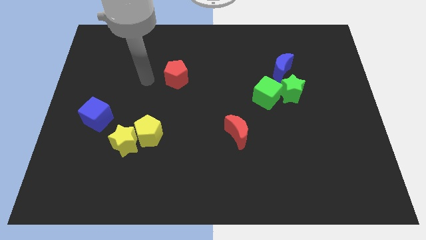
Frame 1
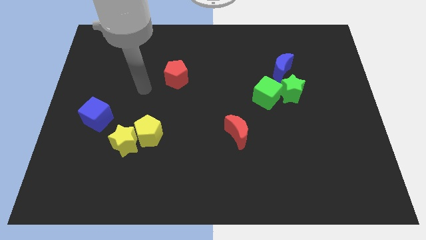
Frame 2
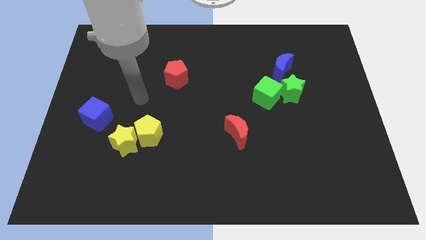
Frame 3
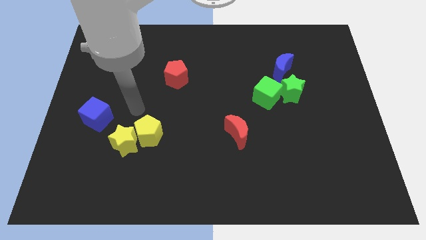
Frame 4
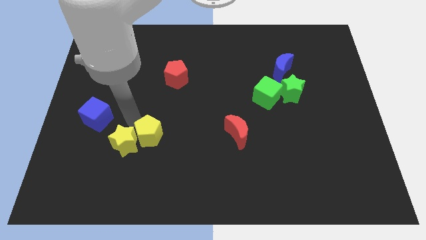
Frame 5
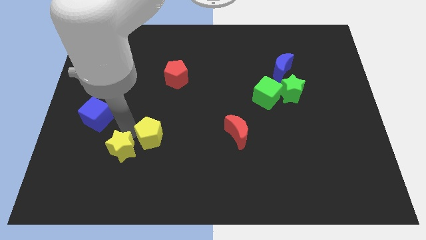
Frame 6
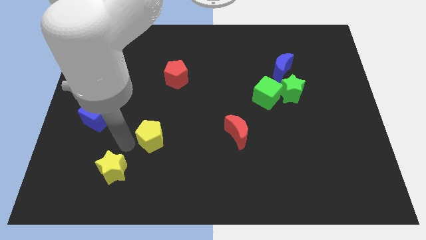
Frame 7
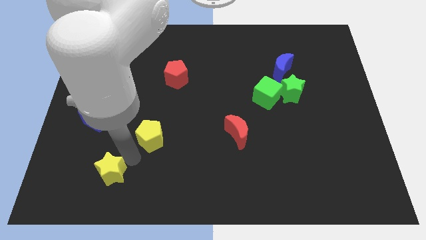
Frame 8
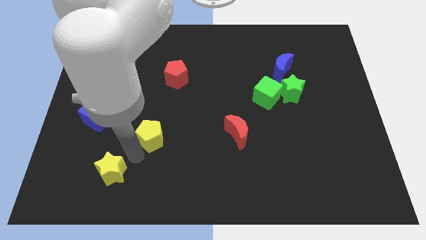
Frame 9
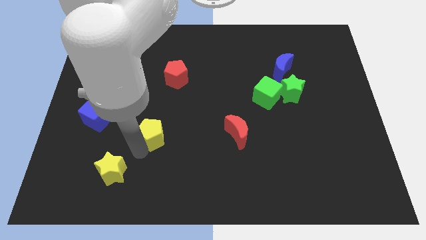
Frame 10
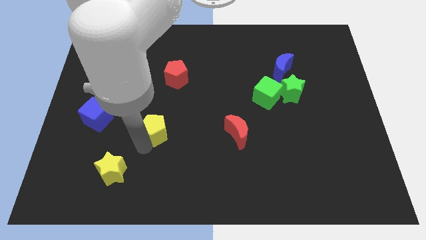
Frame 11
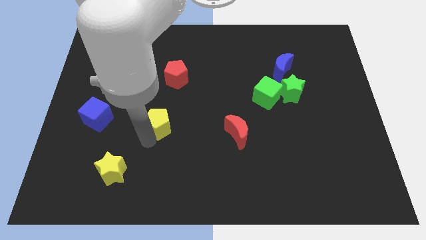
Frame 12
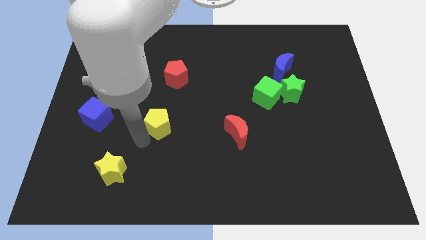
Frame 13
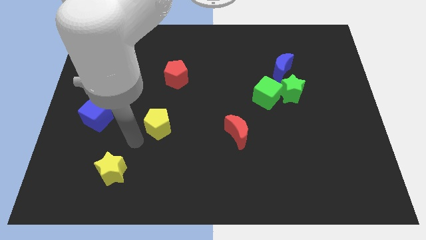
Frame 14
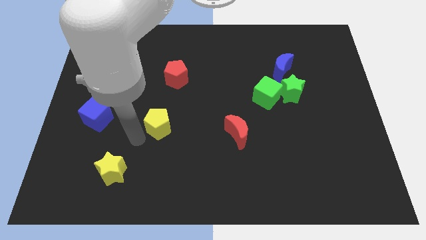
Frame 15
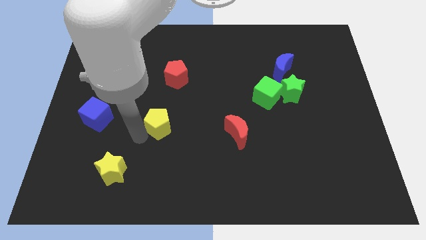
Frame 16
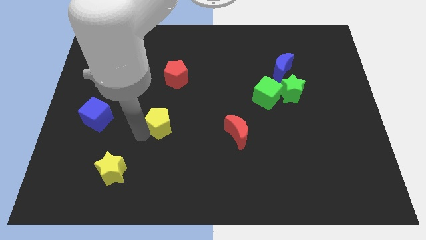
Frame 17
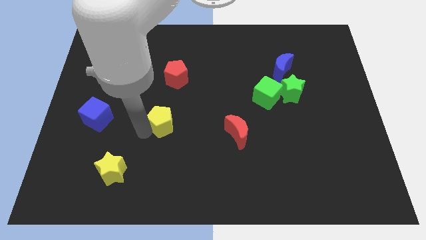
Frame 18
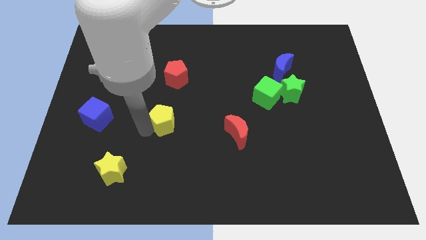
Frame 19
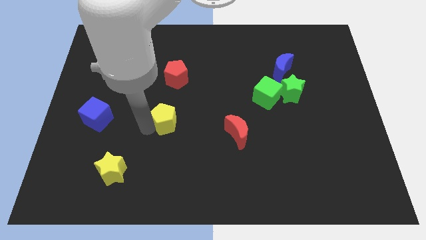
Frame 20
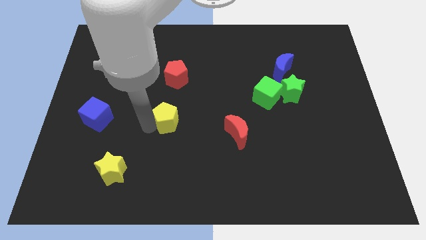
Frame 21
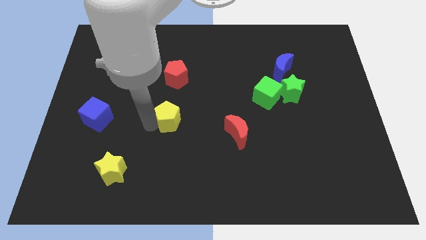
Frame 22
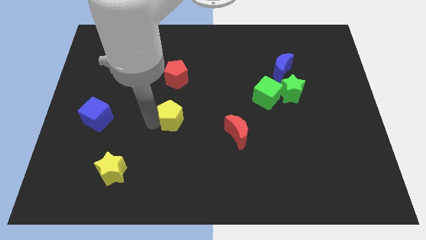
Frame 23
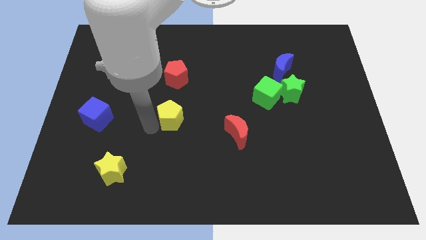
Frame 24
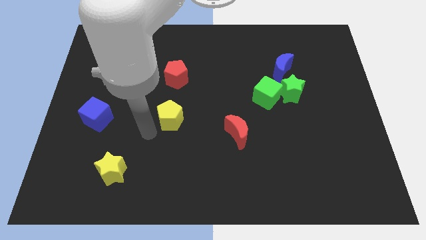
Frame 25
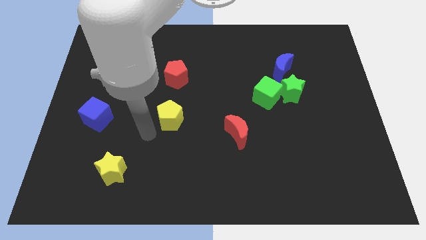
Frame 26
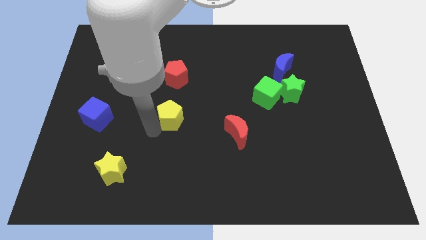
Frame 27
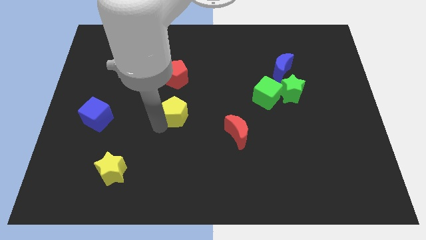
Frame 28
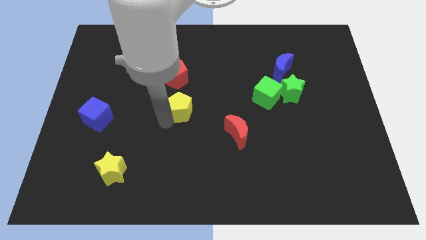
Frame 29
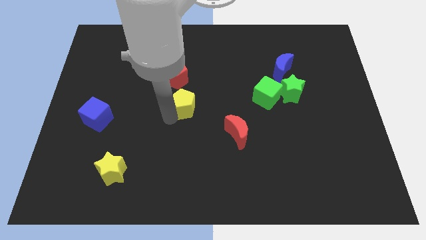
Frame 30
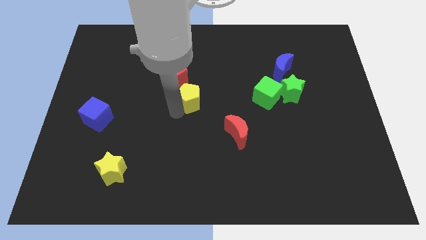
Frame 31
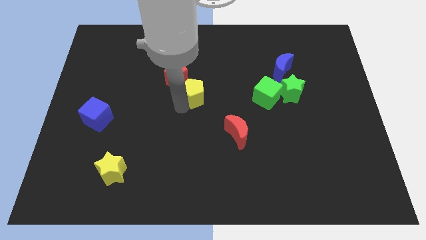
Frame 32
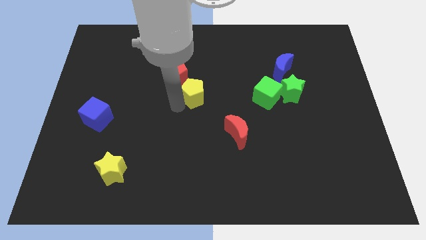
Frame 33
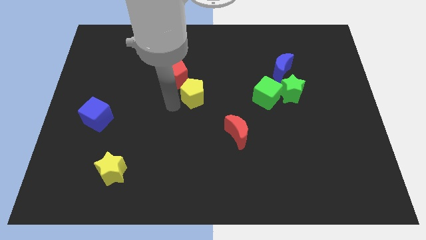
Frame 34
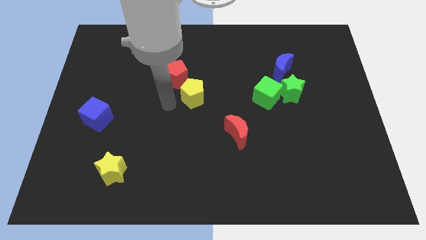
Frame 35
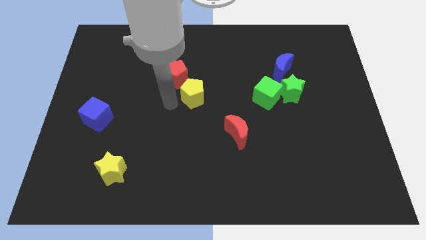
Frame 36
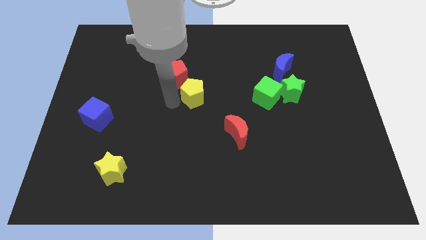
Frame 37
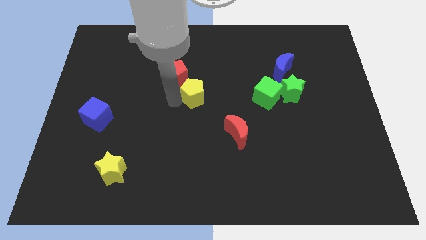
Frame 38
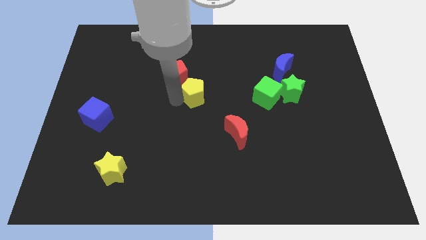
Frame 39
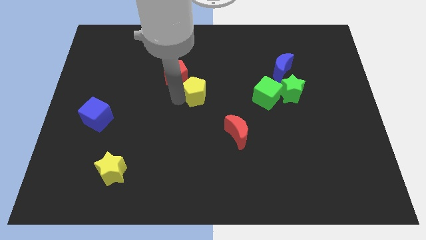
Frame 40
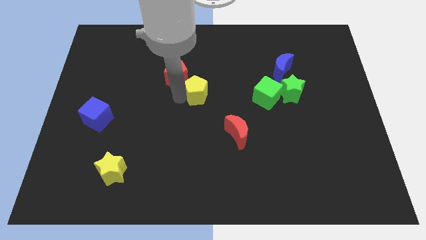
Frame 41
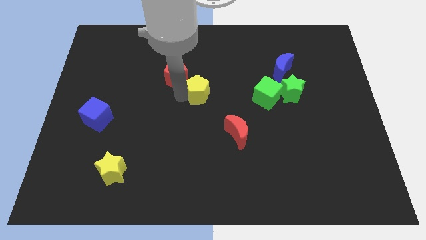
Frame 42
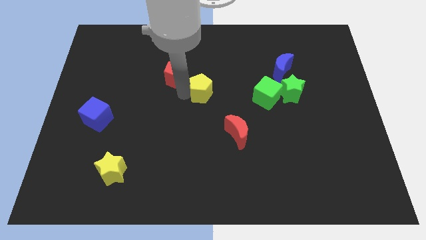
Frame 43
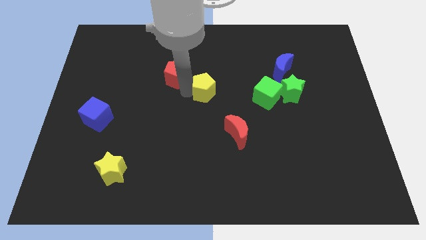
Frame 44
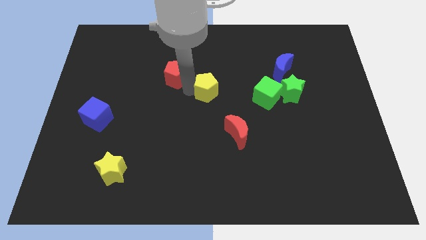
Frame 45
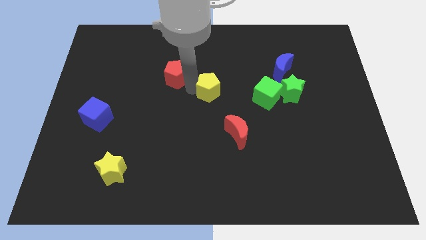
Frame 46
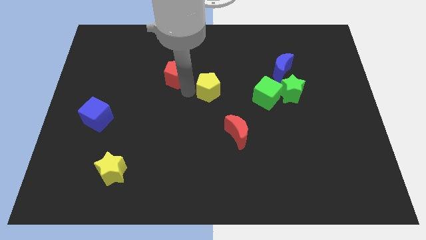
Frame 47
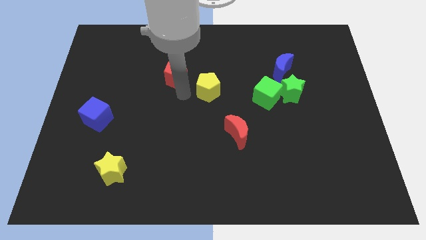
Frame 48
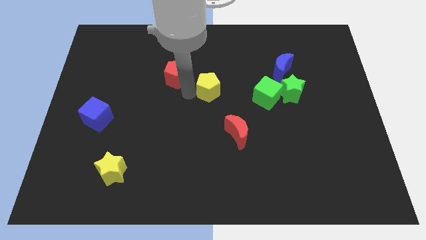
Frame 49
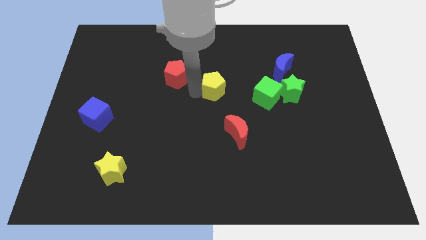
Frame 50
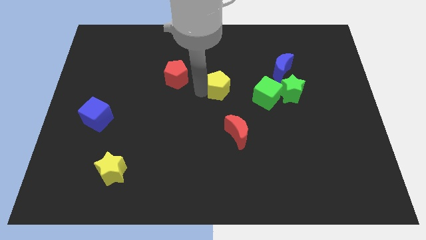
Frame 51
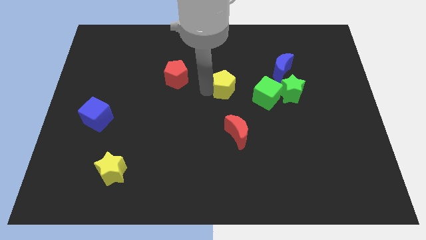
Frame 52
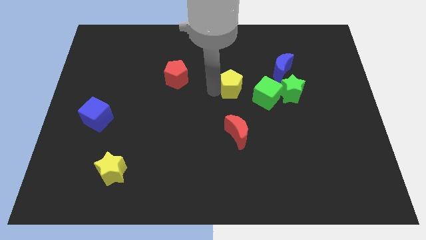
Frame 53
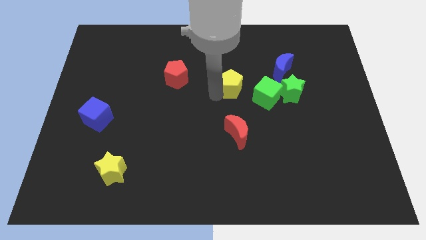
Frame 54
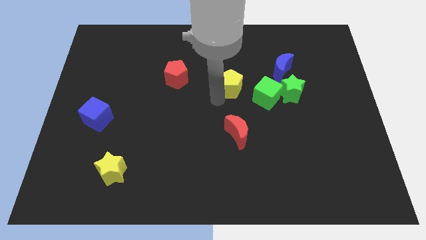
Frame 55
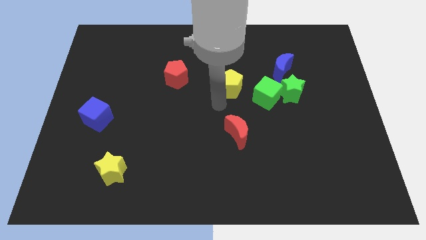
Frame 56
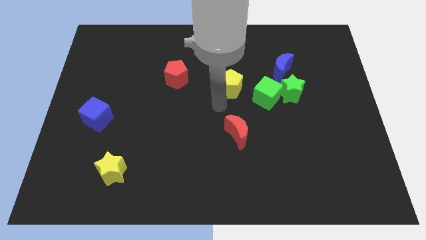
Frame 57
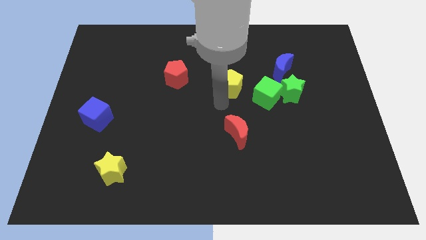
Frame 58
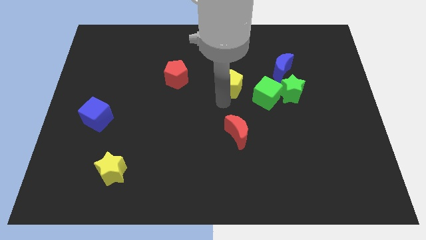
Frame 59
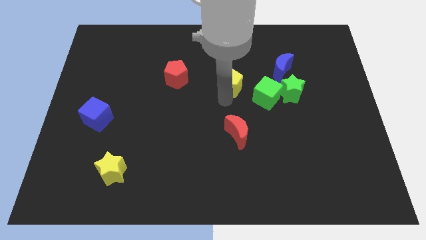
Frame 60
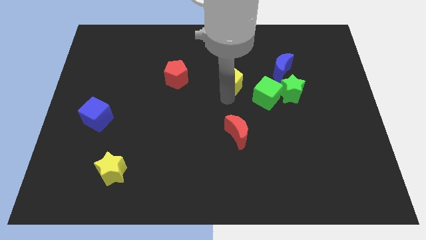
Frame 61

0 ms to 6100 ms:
put the yellow pentagon to the left of the blue moon
